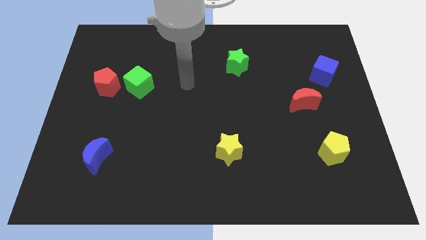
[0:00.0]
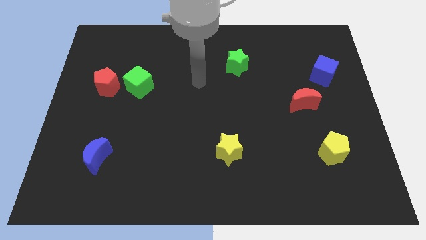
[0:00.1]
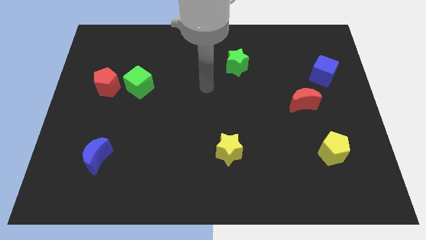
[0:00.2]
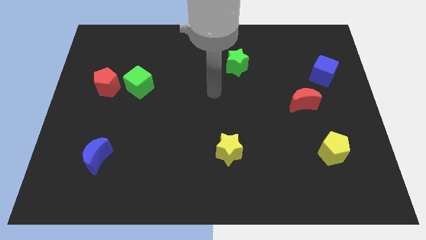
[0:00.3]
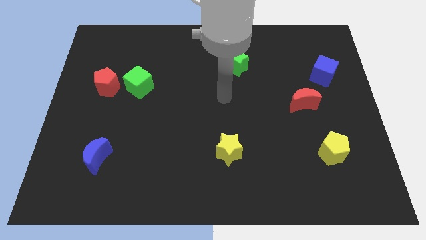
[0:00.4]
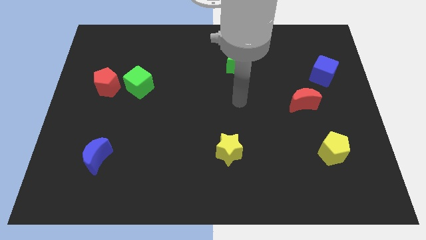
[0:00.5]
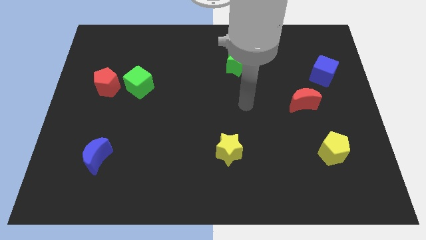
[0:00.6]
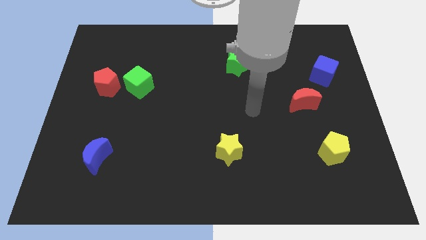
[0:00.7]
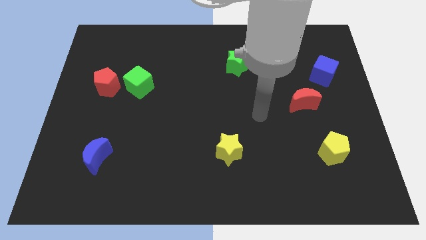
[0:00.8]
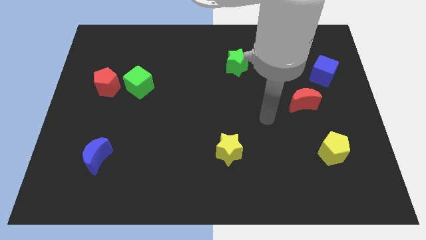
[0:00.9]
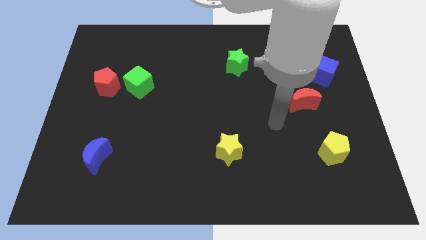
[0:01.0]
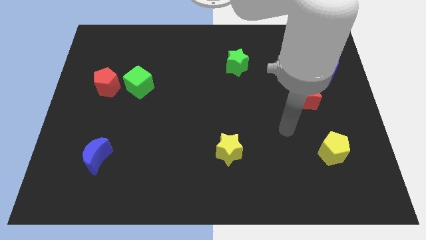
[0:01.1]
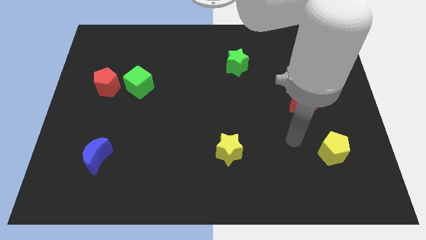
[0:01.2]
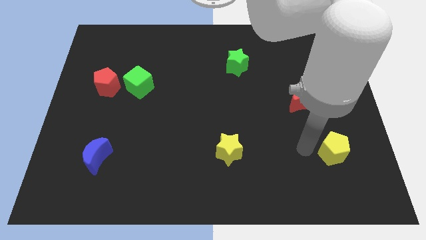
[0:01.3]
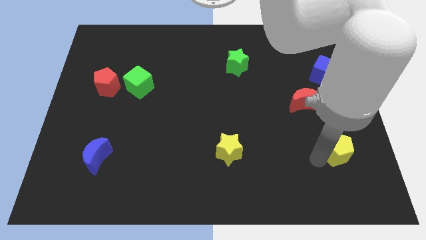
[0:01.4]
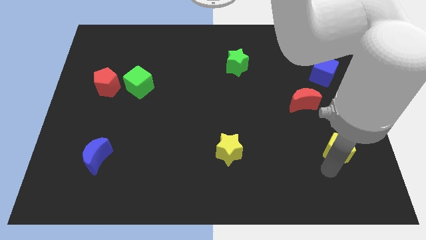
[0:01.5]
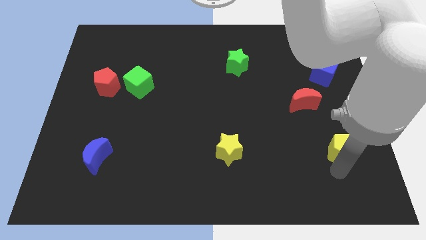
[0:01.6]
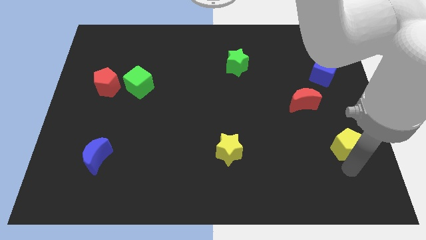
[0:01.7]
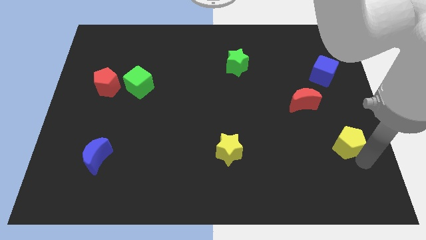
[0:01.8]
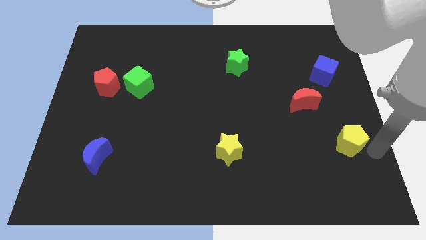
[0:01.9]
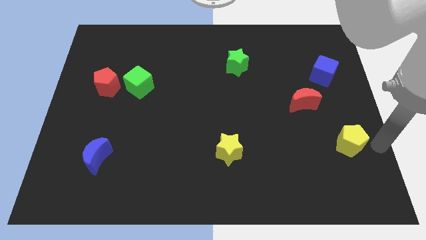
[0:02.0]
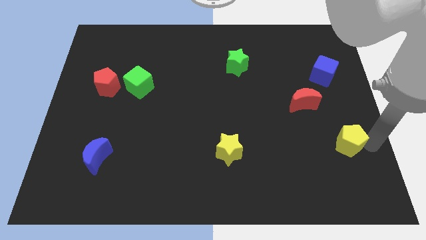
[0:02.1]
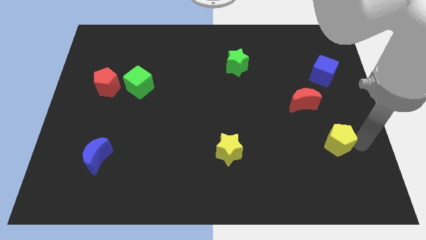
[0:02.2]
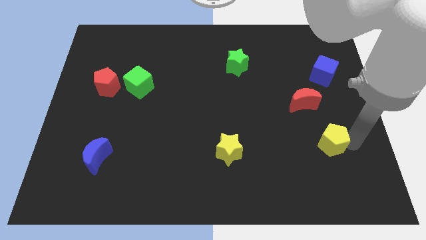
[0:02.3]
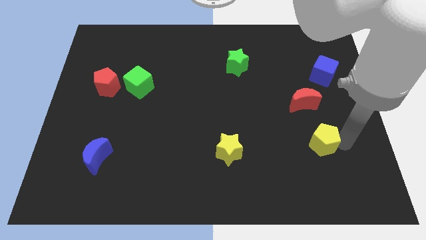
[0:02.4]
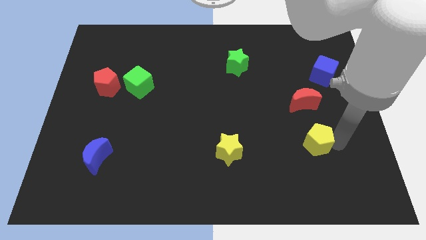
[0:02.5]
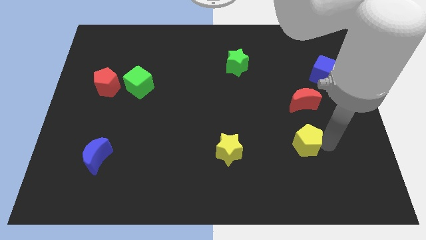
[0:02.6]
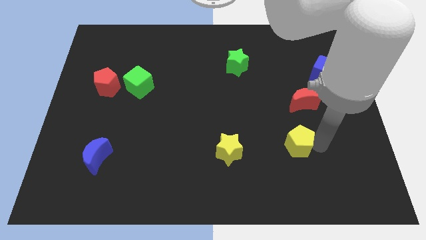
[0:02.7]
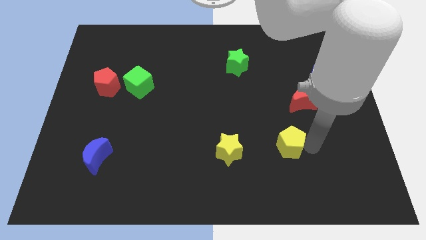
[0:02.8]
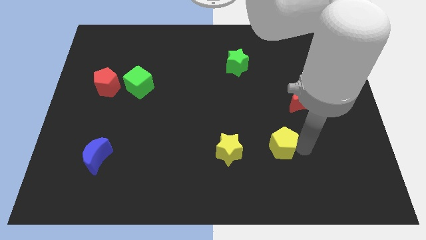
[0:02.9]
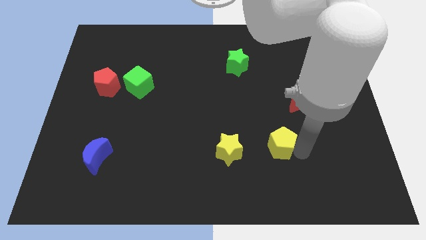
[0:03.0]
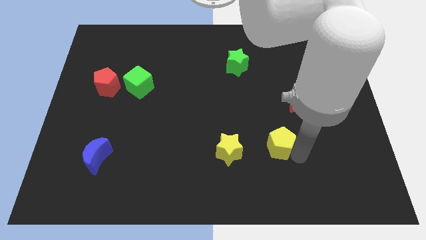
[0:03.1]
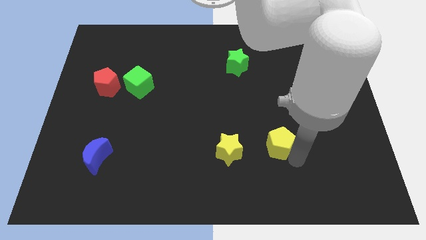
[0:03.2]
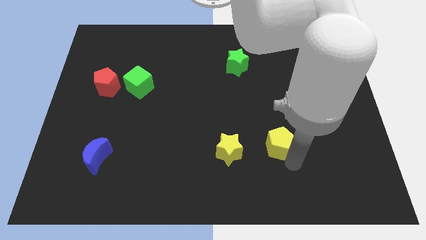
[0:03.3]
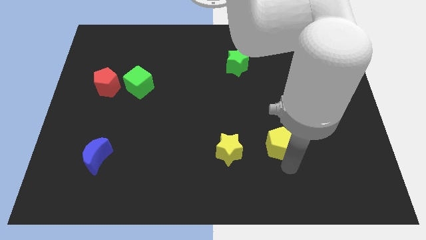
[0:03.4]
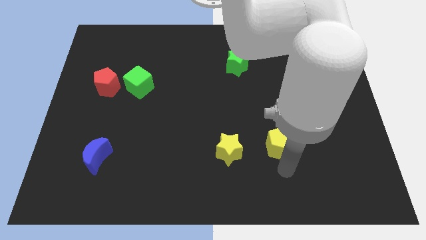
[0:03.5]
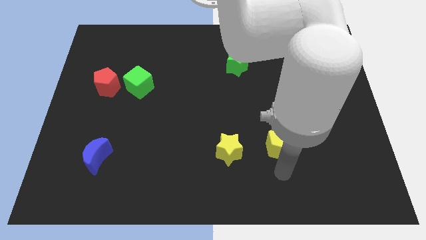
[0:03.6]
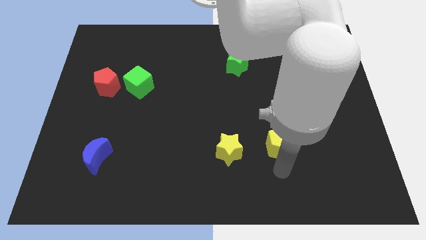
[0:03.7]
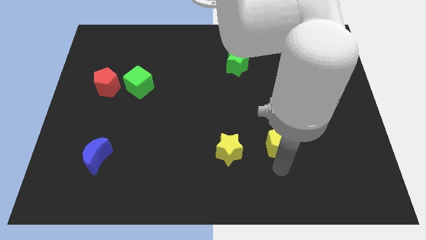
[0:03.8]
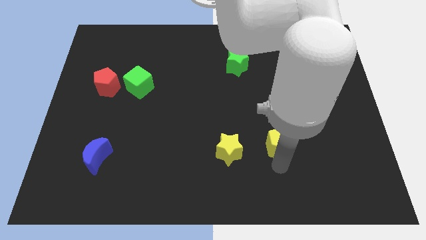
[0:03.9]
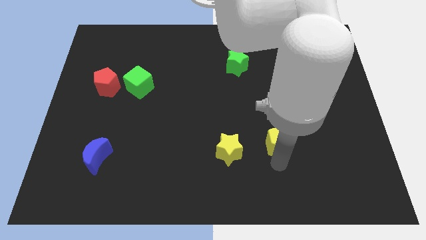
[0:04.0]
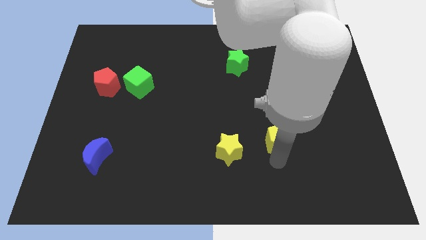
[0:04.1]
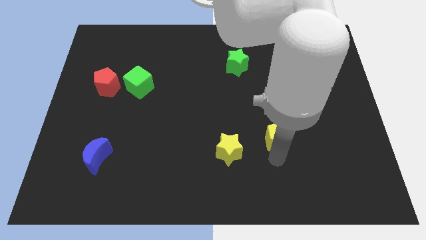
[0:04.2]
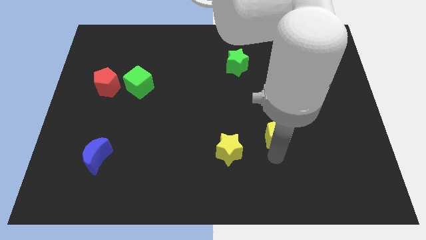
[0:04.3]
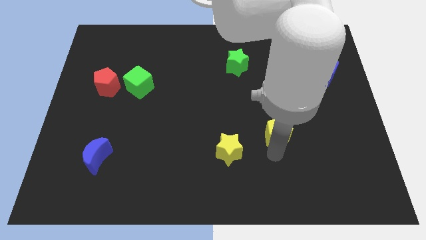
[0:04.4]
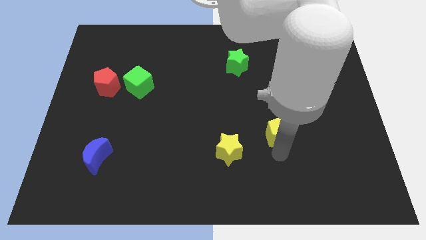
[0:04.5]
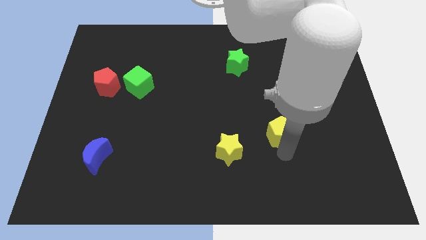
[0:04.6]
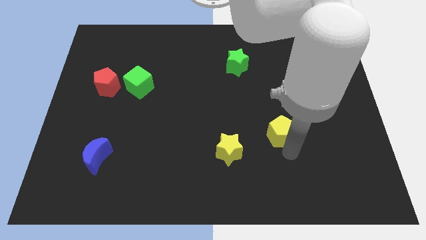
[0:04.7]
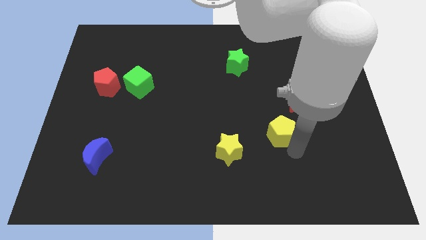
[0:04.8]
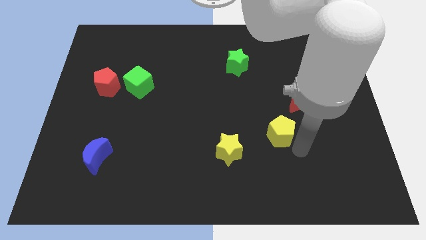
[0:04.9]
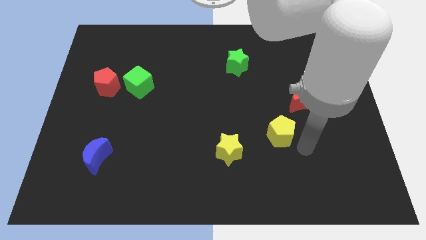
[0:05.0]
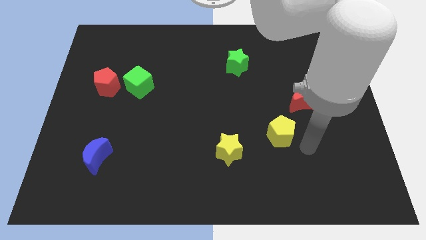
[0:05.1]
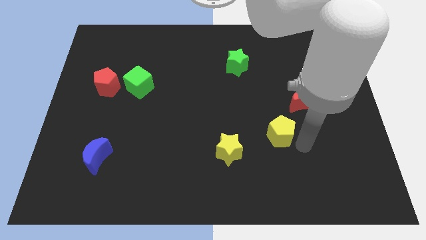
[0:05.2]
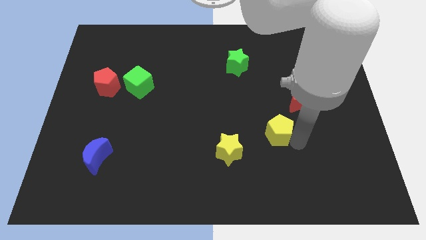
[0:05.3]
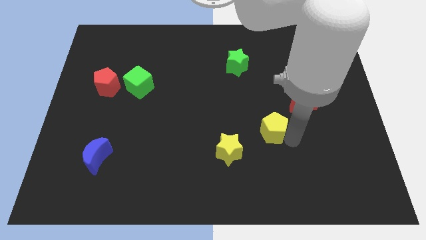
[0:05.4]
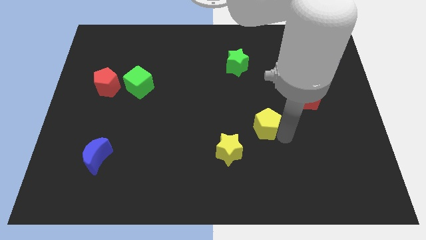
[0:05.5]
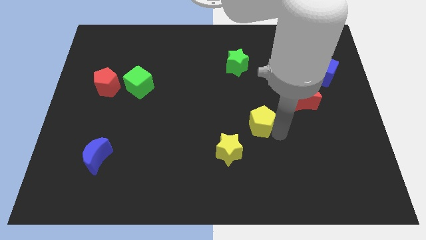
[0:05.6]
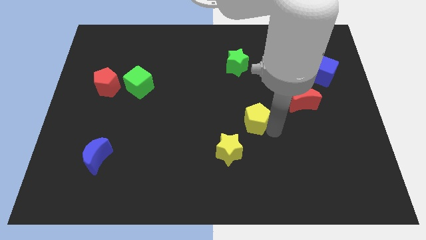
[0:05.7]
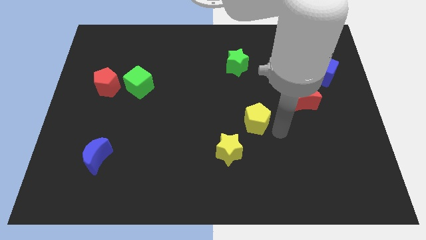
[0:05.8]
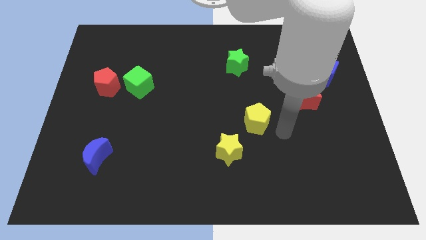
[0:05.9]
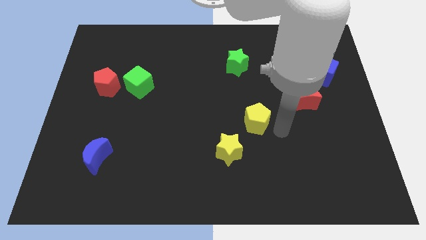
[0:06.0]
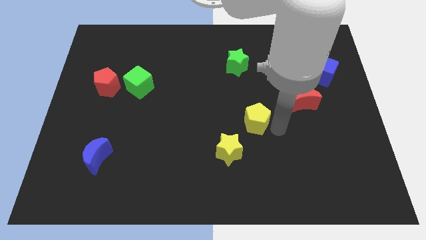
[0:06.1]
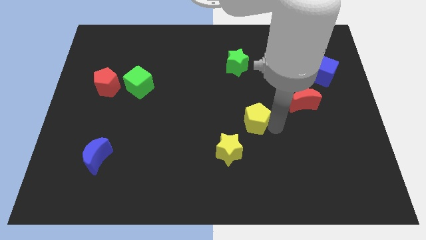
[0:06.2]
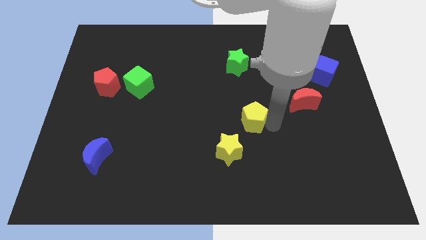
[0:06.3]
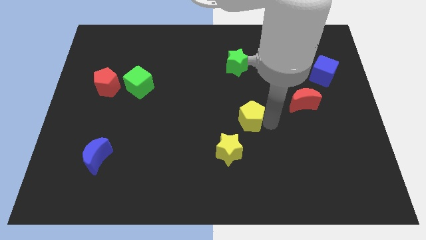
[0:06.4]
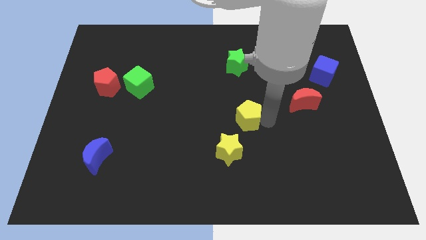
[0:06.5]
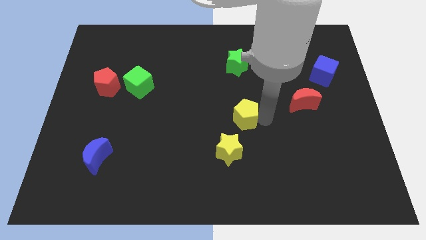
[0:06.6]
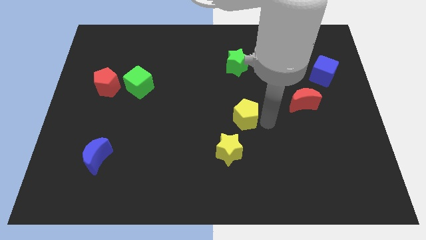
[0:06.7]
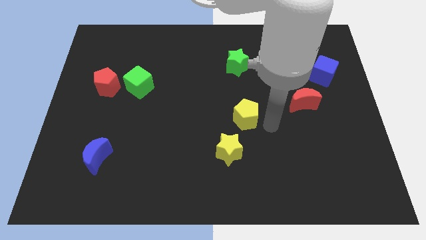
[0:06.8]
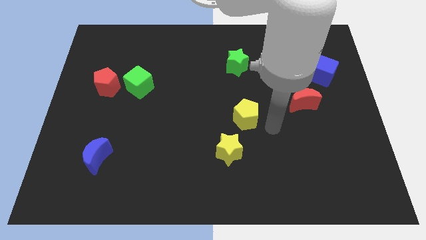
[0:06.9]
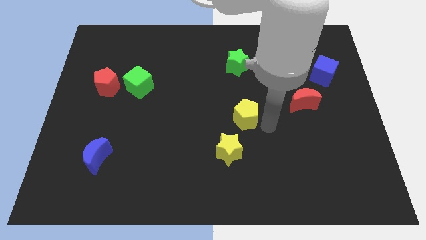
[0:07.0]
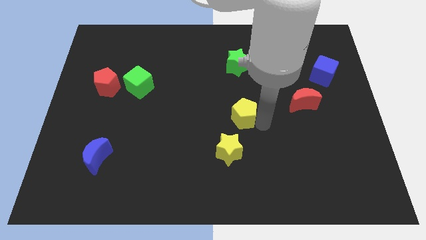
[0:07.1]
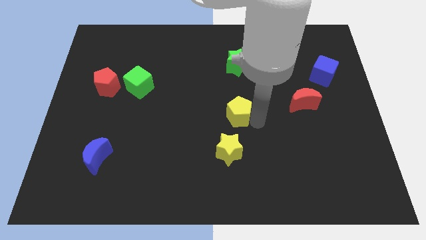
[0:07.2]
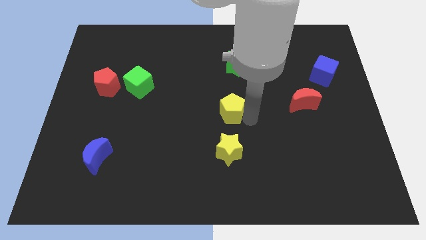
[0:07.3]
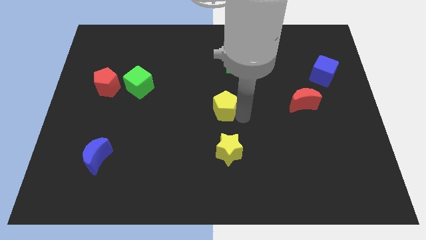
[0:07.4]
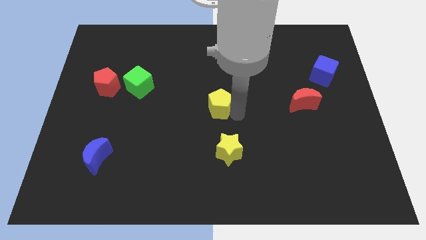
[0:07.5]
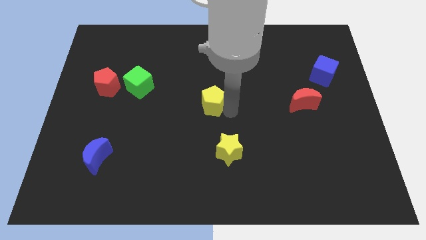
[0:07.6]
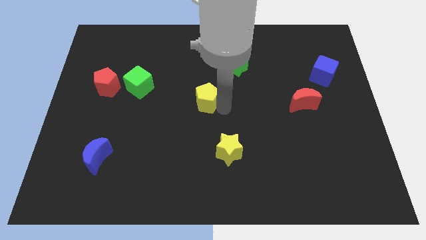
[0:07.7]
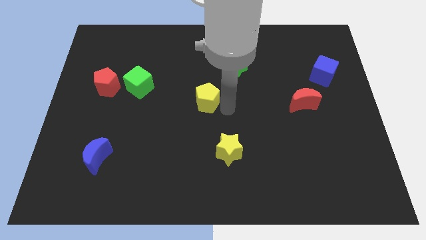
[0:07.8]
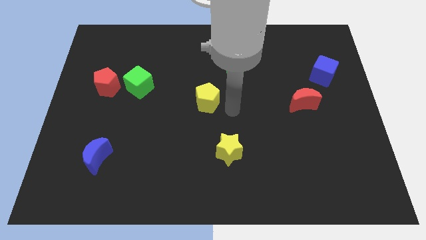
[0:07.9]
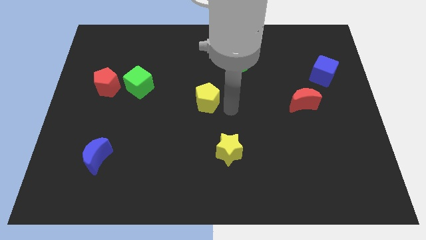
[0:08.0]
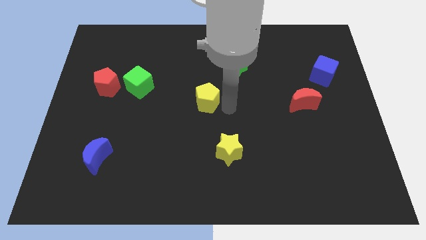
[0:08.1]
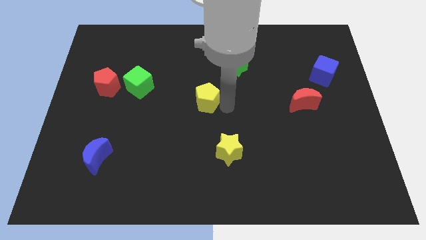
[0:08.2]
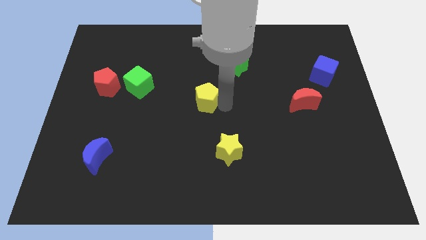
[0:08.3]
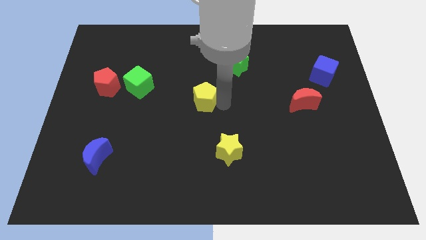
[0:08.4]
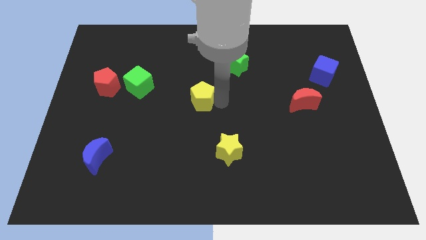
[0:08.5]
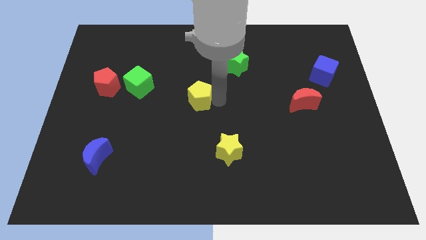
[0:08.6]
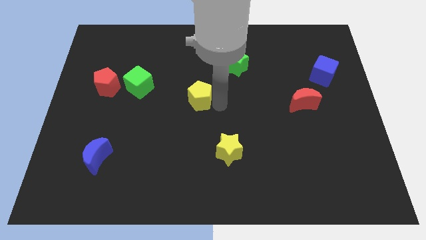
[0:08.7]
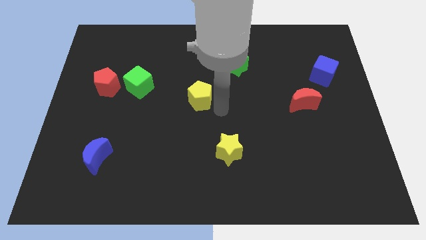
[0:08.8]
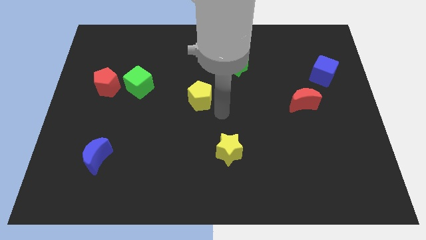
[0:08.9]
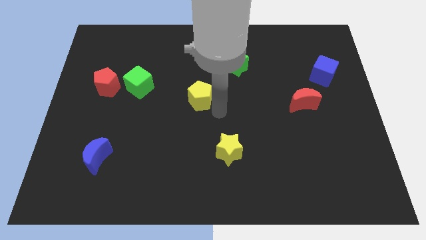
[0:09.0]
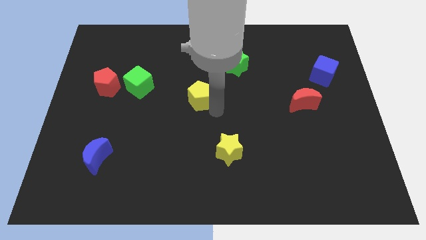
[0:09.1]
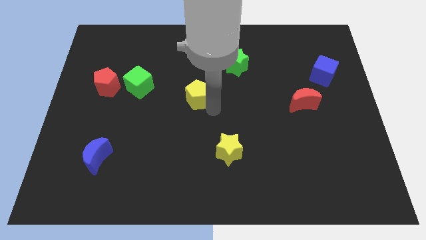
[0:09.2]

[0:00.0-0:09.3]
slide the yellow pentagon just right of the green cube
